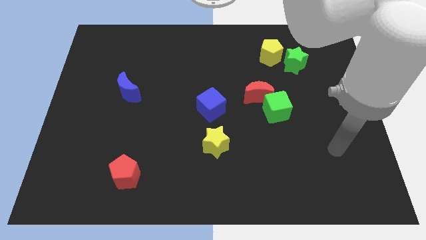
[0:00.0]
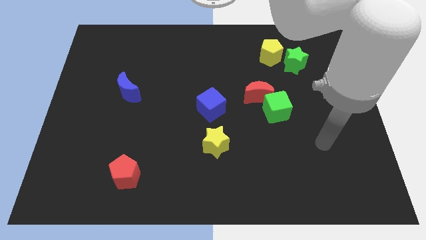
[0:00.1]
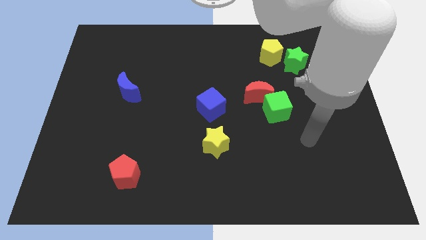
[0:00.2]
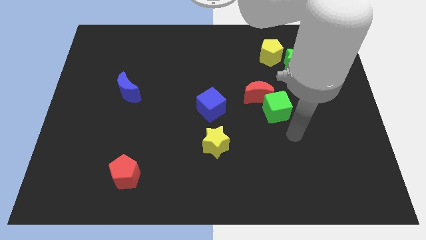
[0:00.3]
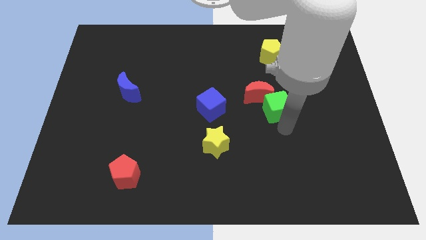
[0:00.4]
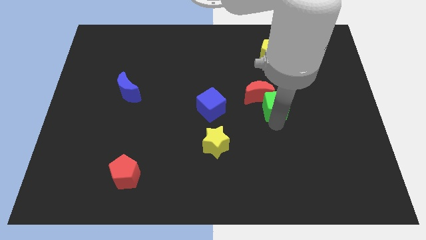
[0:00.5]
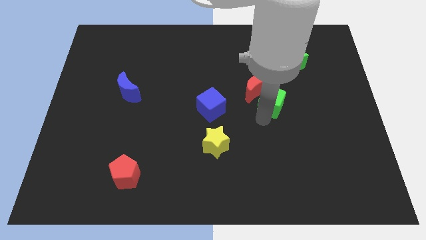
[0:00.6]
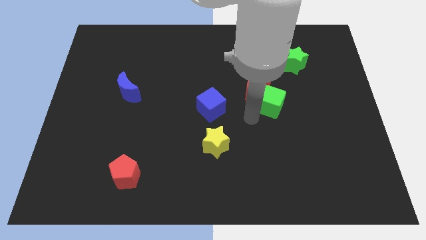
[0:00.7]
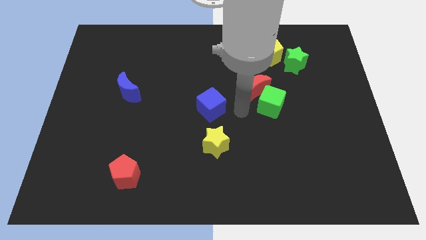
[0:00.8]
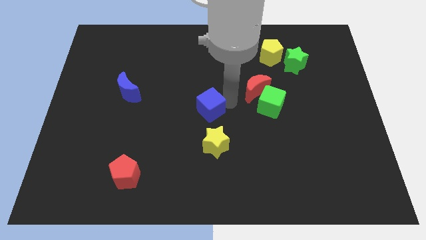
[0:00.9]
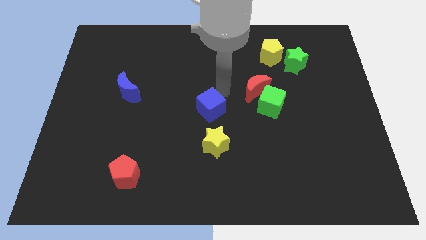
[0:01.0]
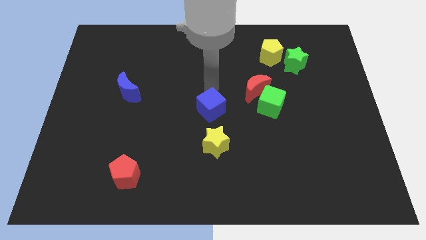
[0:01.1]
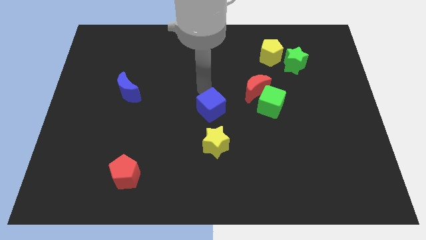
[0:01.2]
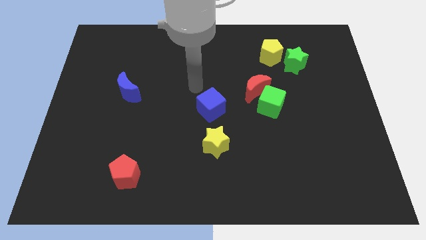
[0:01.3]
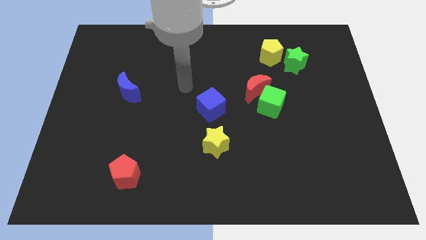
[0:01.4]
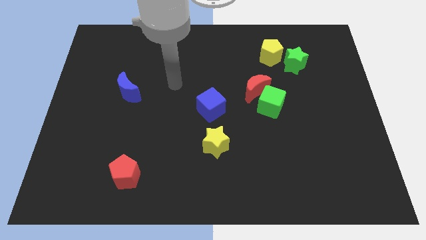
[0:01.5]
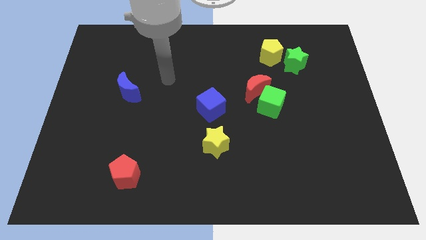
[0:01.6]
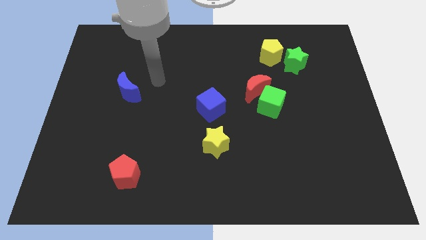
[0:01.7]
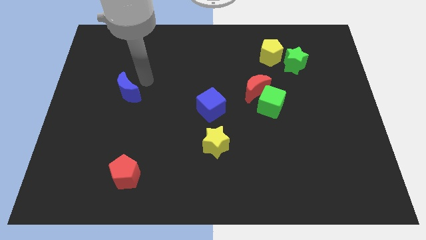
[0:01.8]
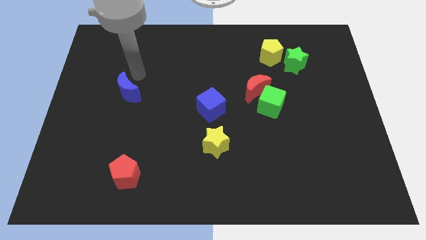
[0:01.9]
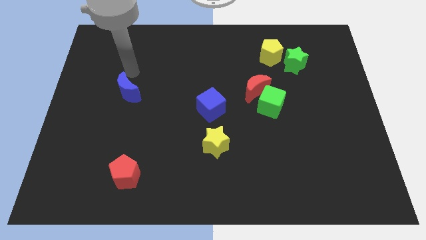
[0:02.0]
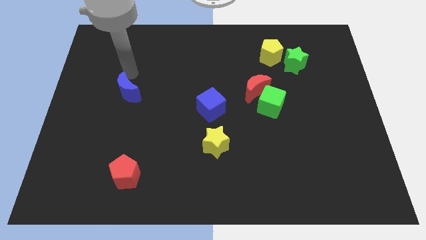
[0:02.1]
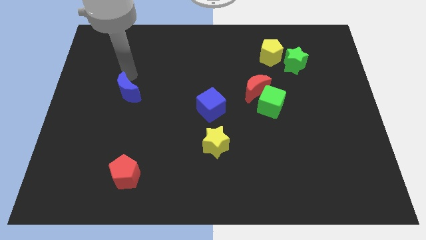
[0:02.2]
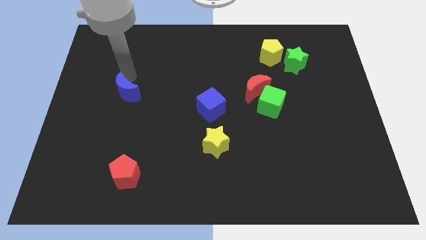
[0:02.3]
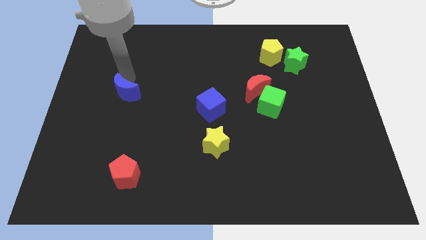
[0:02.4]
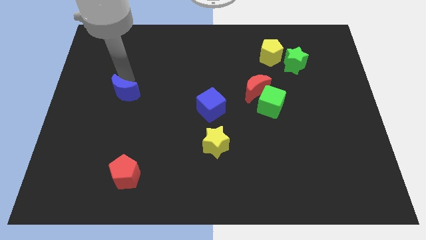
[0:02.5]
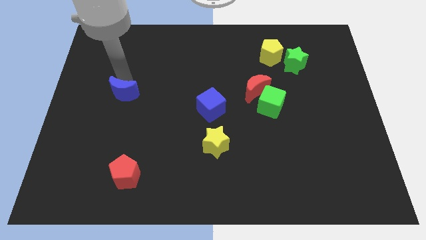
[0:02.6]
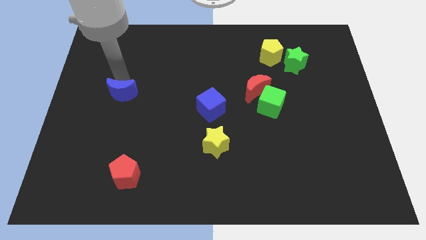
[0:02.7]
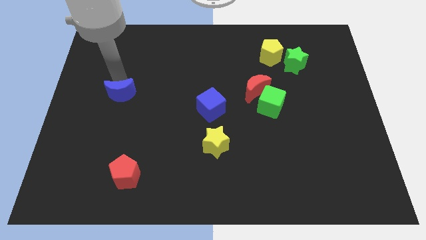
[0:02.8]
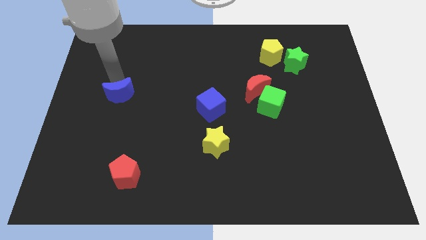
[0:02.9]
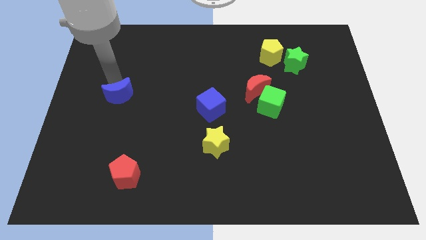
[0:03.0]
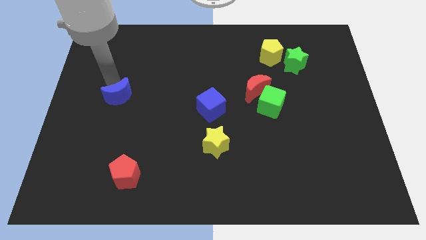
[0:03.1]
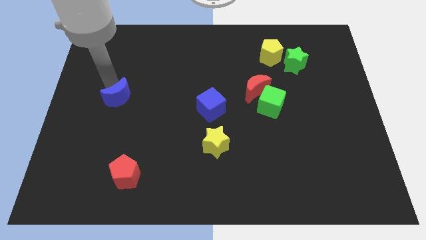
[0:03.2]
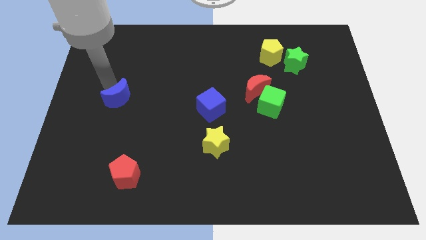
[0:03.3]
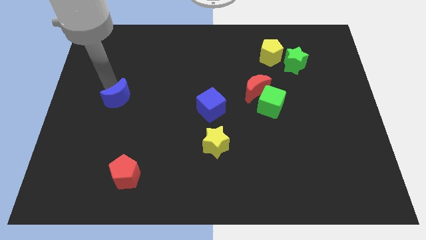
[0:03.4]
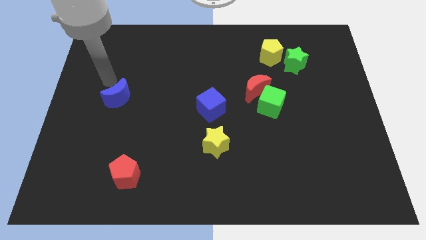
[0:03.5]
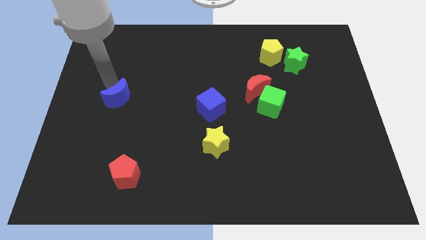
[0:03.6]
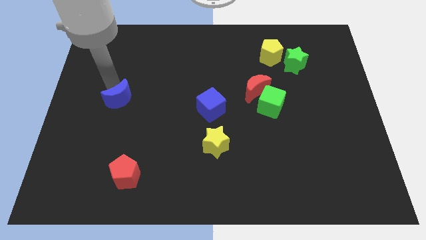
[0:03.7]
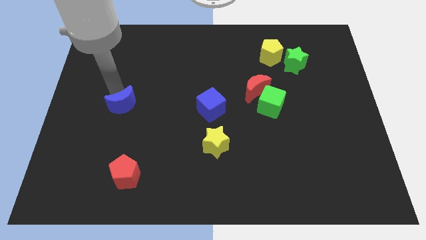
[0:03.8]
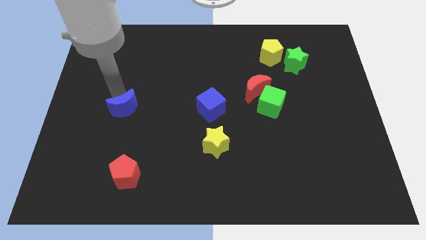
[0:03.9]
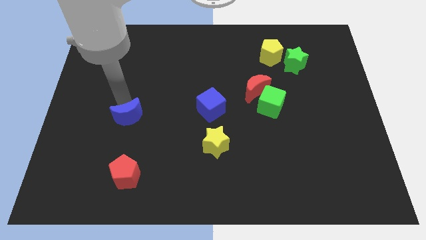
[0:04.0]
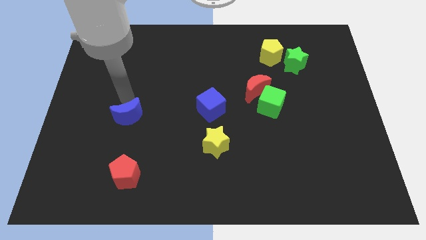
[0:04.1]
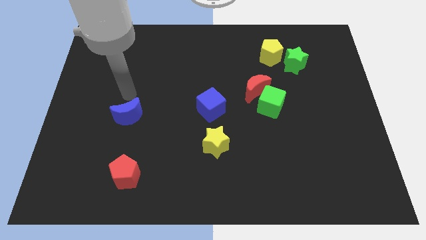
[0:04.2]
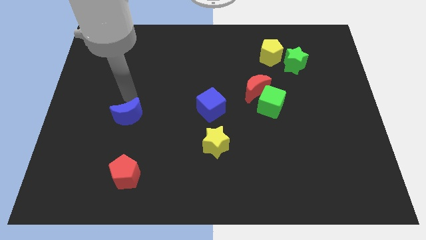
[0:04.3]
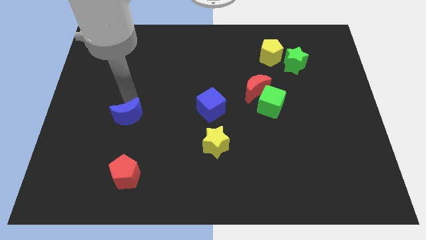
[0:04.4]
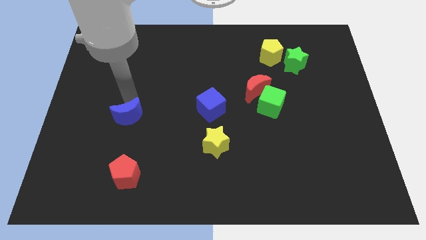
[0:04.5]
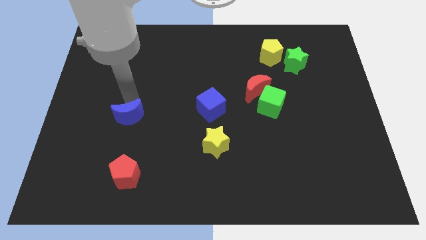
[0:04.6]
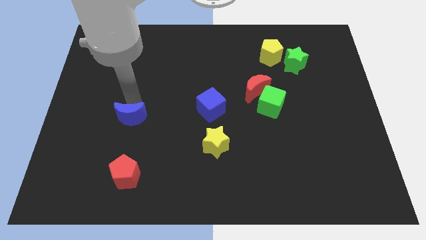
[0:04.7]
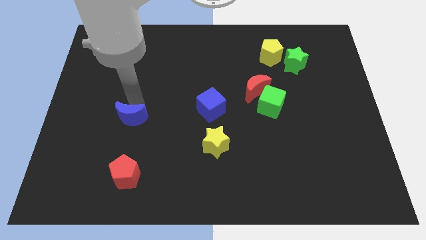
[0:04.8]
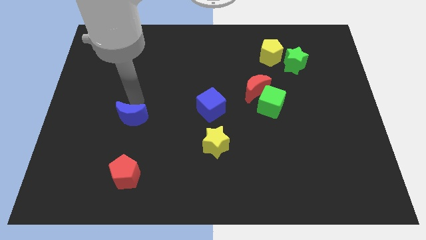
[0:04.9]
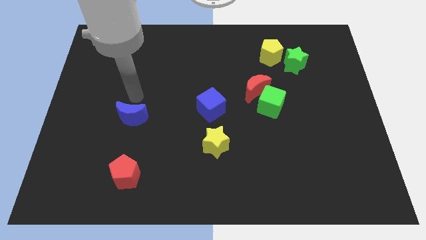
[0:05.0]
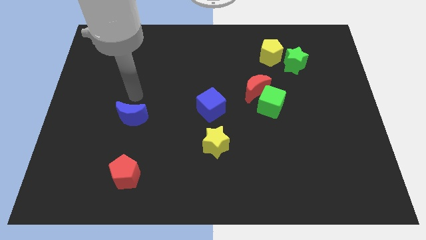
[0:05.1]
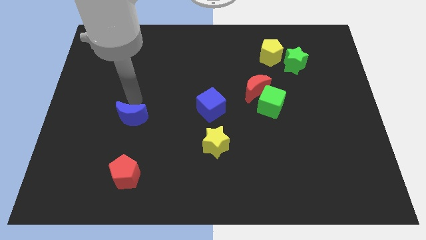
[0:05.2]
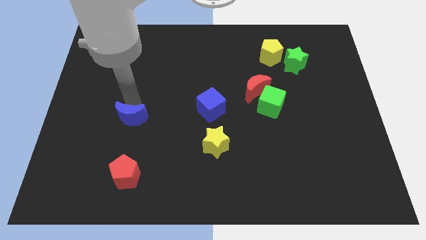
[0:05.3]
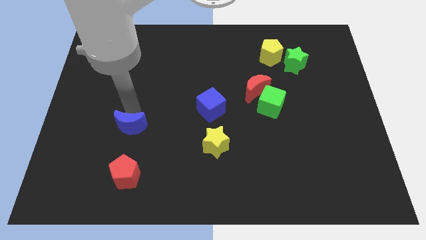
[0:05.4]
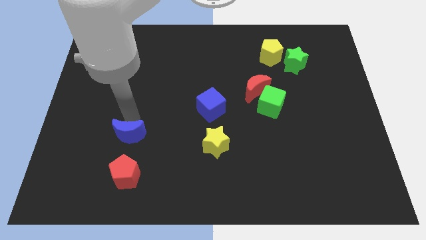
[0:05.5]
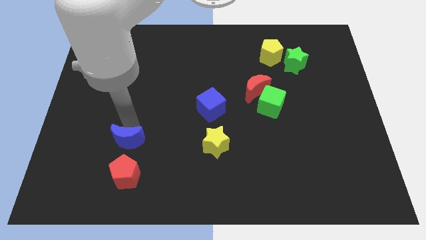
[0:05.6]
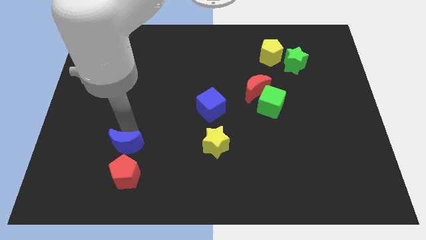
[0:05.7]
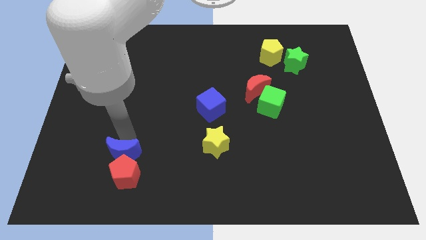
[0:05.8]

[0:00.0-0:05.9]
move the blue moon towards the red pentagon

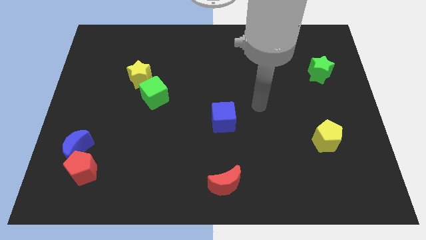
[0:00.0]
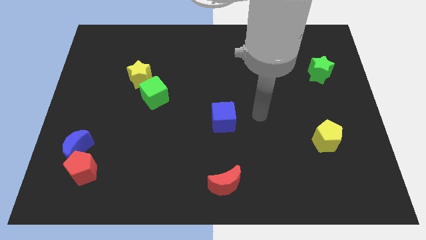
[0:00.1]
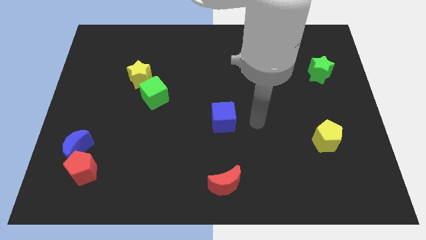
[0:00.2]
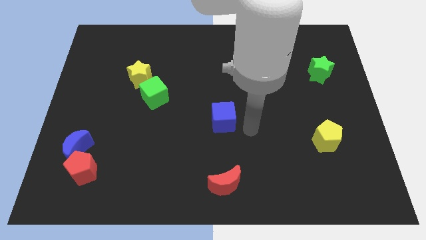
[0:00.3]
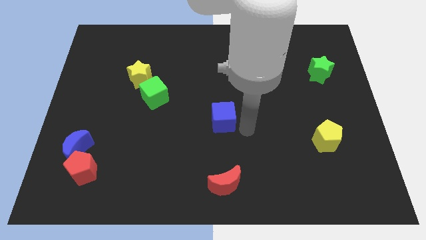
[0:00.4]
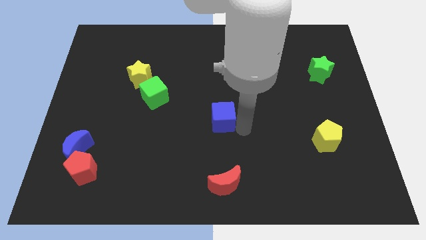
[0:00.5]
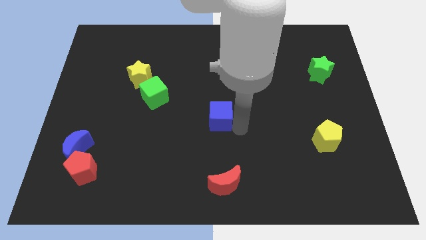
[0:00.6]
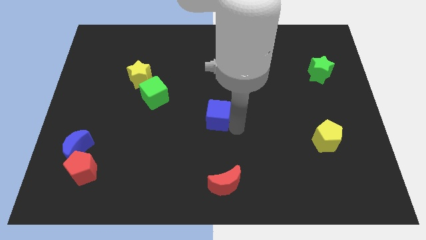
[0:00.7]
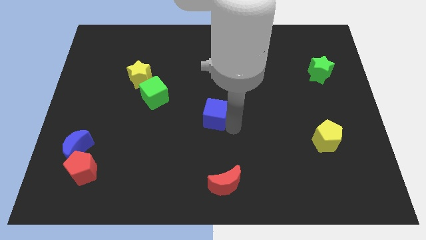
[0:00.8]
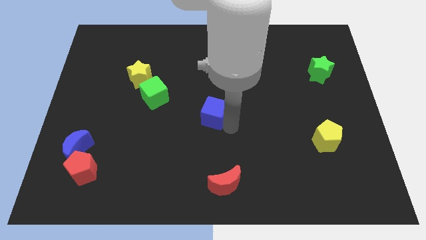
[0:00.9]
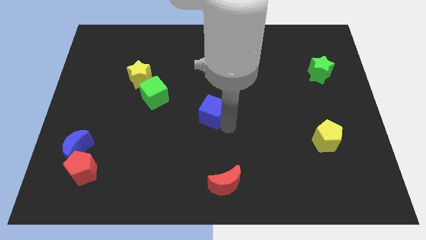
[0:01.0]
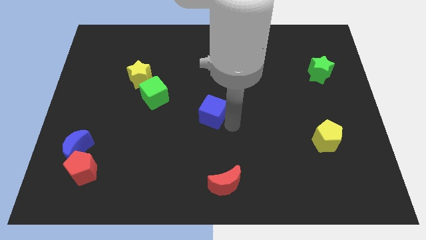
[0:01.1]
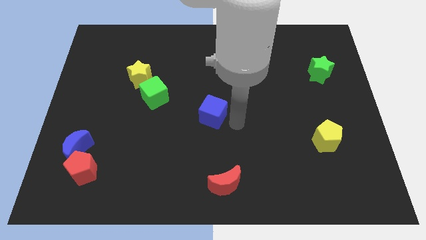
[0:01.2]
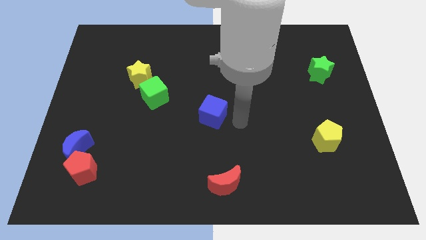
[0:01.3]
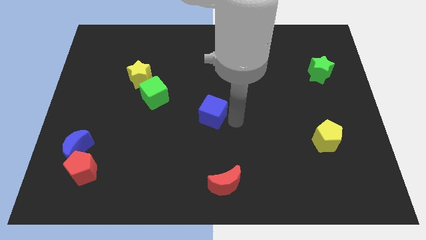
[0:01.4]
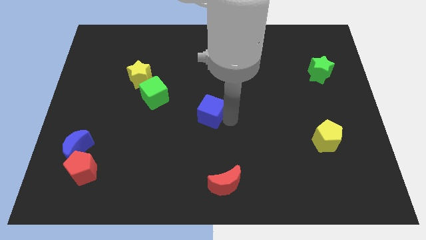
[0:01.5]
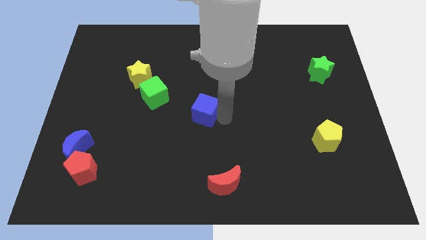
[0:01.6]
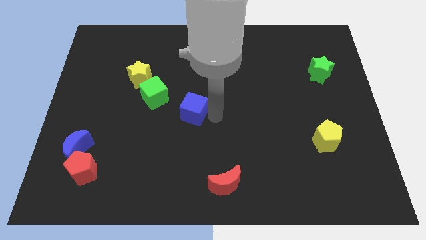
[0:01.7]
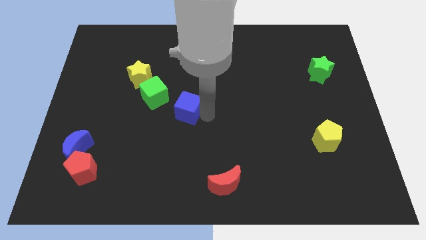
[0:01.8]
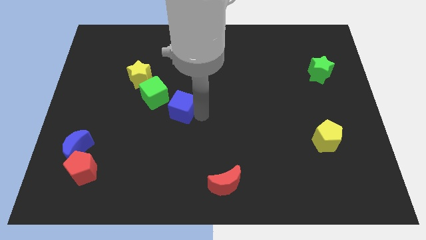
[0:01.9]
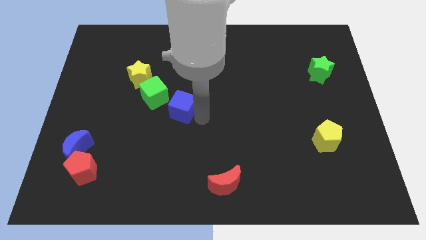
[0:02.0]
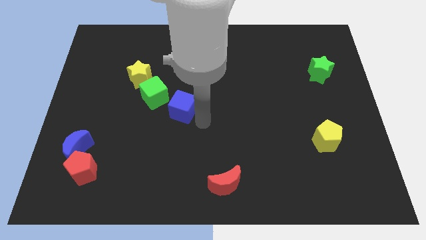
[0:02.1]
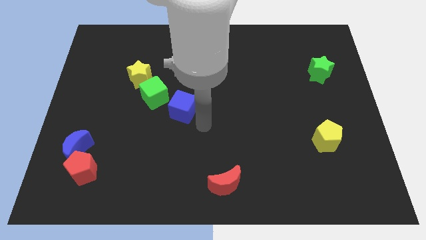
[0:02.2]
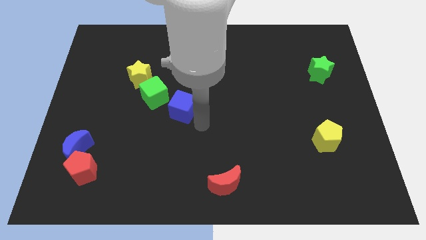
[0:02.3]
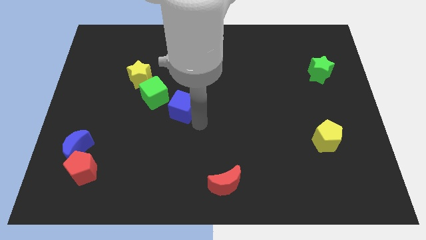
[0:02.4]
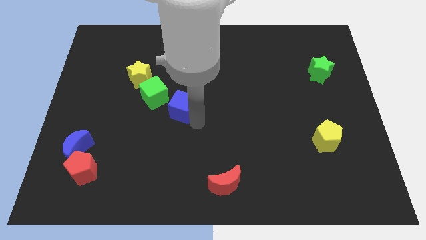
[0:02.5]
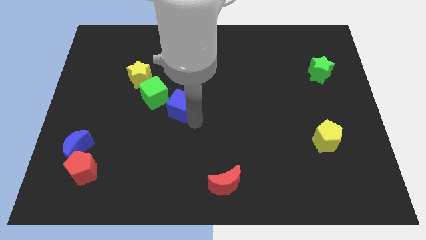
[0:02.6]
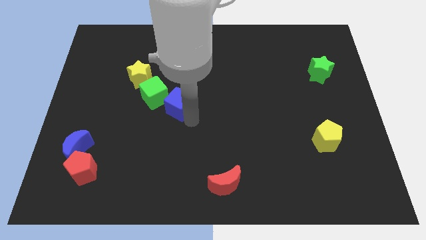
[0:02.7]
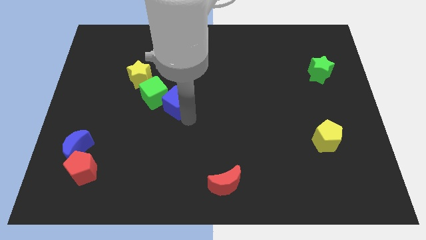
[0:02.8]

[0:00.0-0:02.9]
put the blue cube close to the green cube
